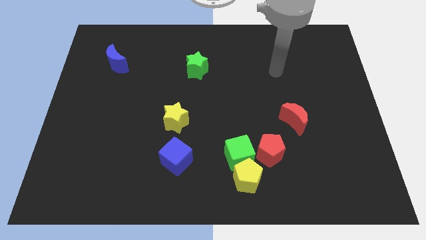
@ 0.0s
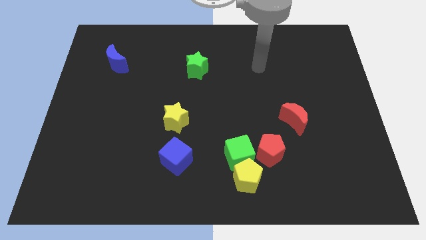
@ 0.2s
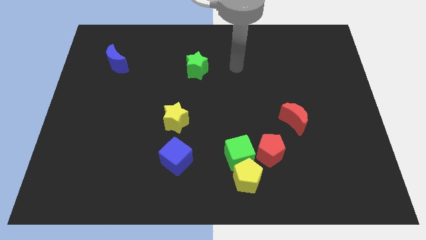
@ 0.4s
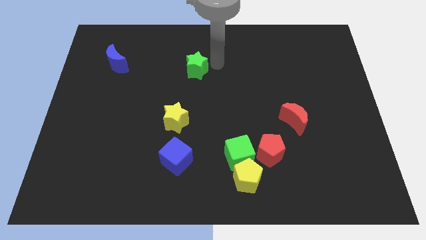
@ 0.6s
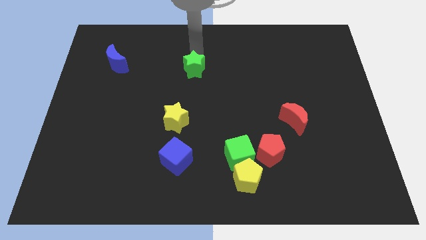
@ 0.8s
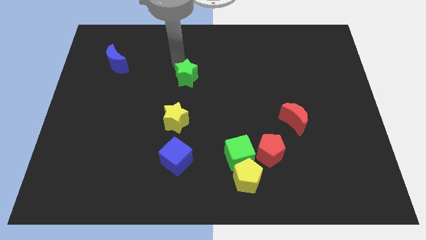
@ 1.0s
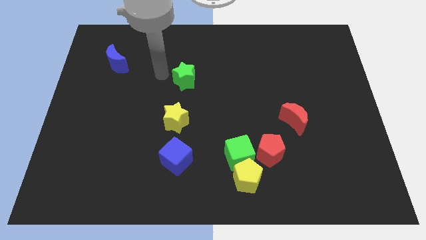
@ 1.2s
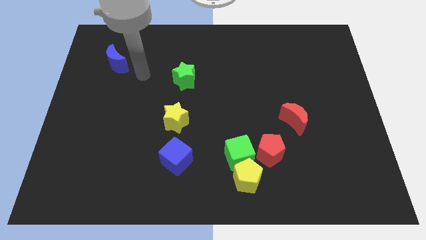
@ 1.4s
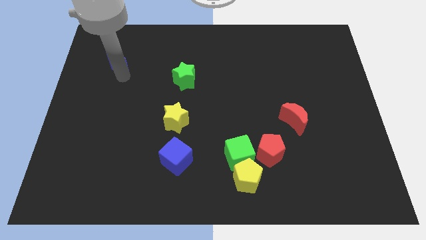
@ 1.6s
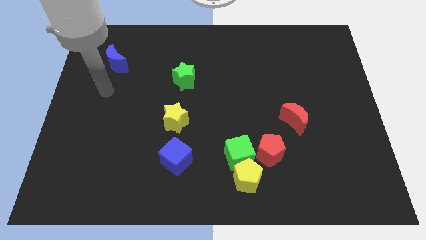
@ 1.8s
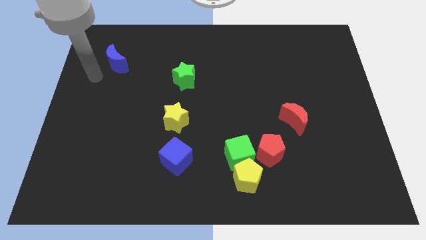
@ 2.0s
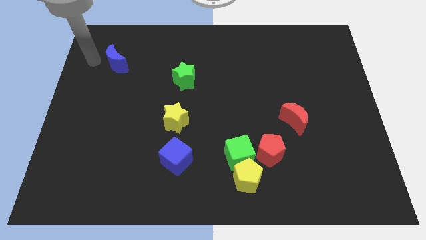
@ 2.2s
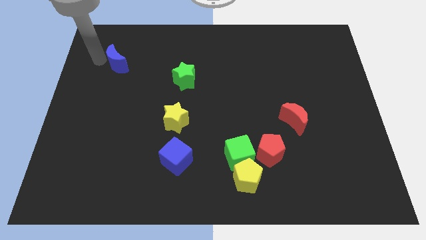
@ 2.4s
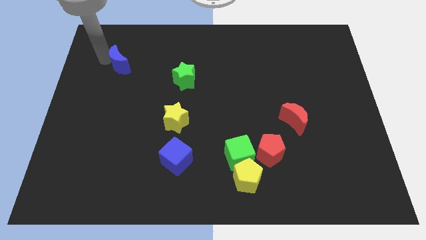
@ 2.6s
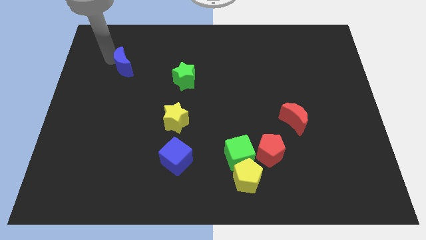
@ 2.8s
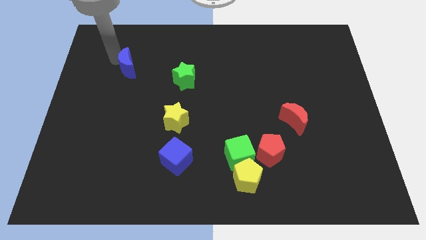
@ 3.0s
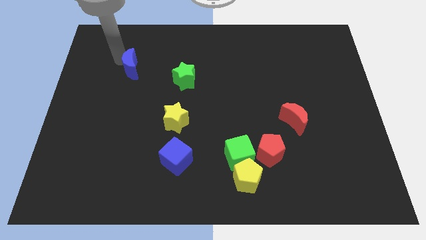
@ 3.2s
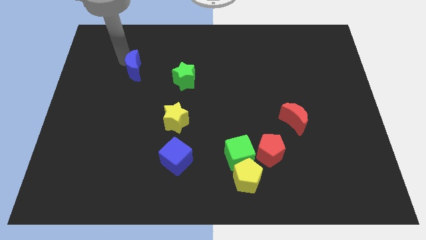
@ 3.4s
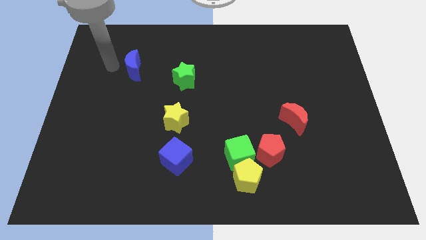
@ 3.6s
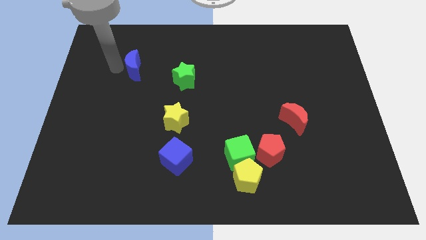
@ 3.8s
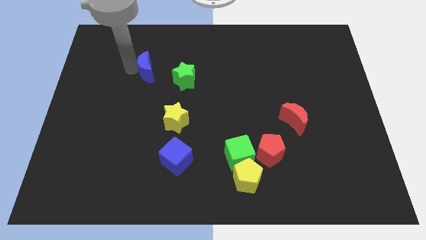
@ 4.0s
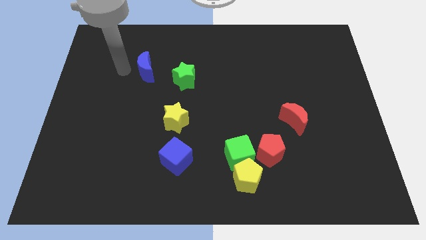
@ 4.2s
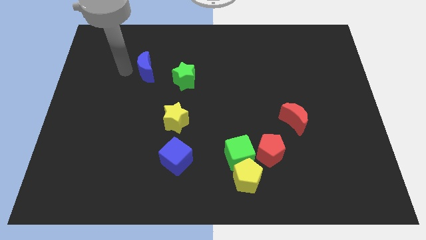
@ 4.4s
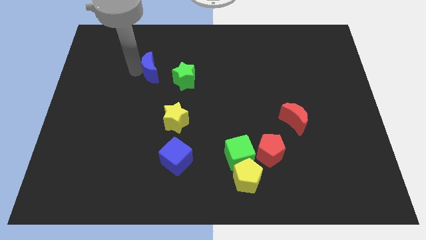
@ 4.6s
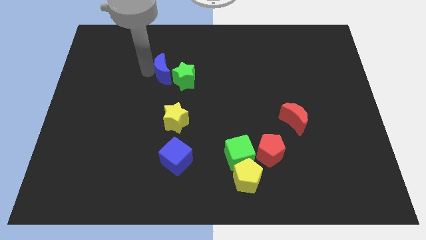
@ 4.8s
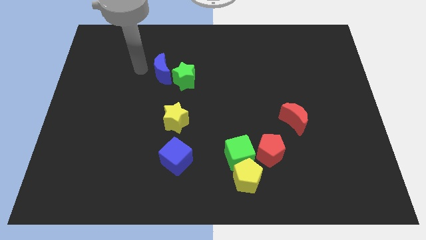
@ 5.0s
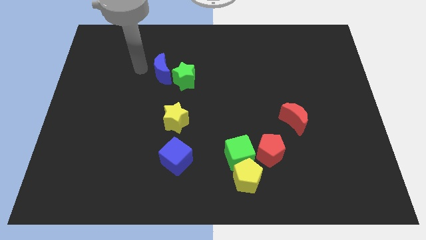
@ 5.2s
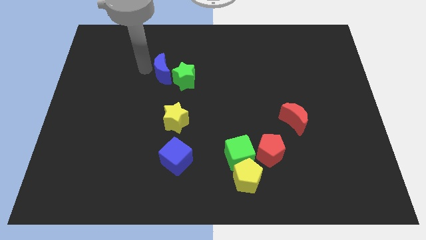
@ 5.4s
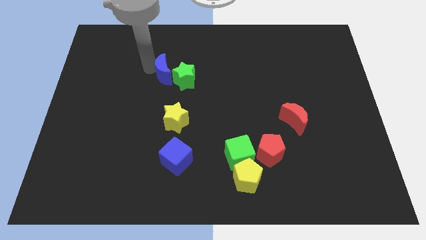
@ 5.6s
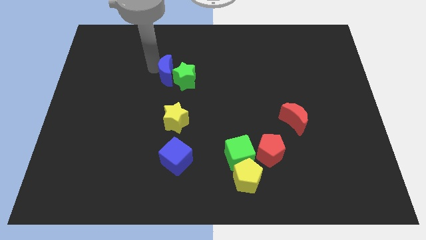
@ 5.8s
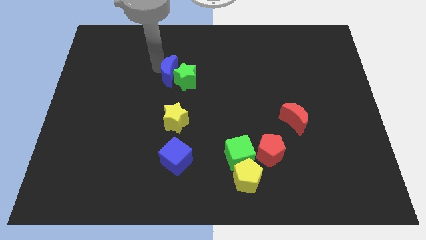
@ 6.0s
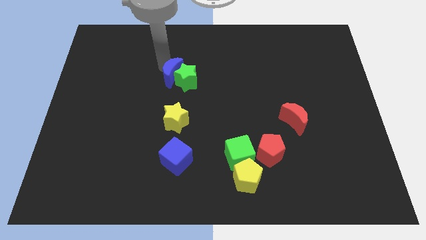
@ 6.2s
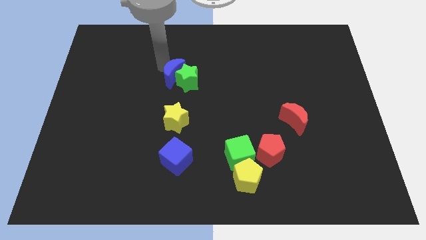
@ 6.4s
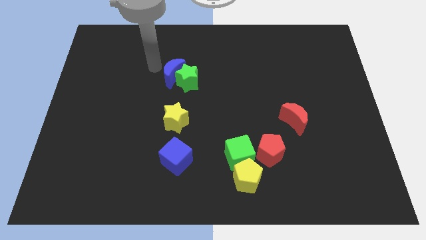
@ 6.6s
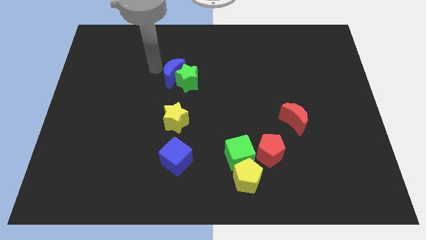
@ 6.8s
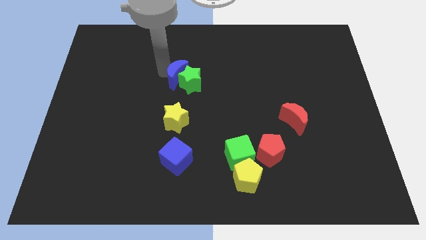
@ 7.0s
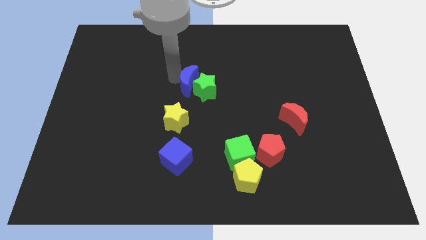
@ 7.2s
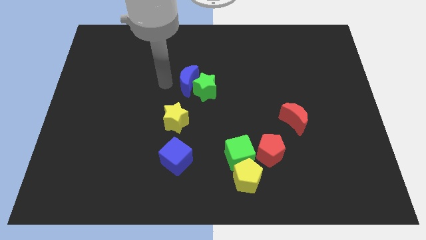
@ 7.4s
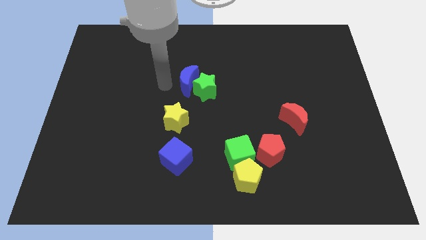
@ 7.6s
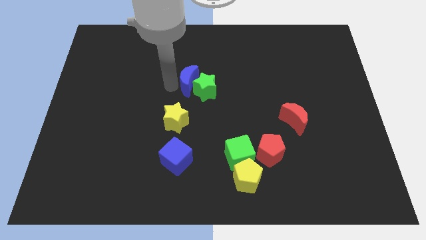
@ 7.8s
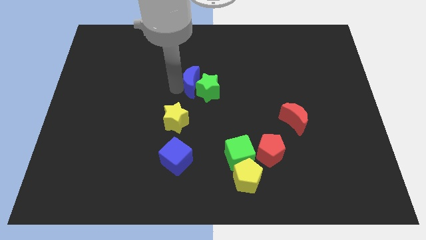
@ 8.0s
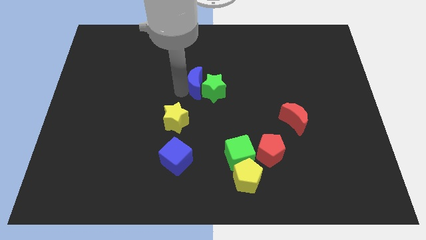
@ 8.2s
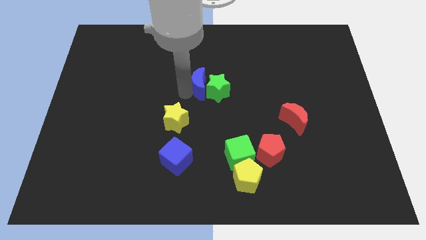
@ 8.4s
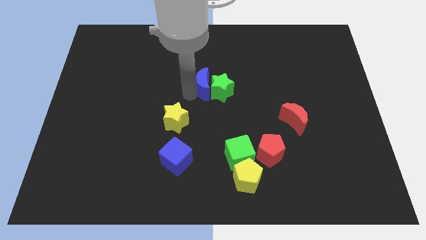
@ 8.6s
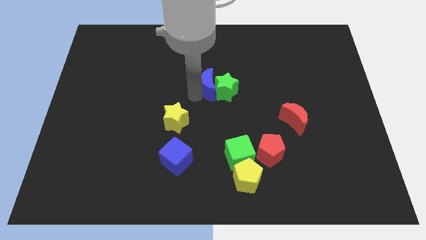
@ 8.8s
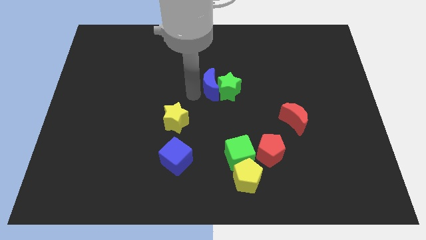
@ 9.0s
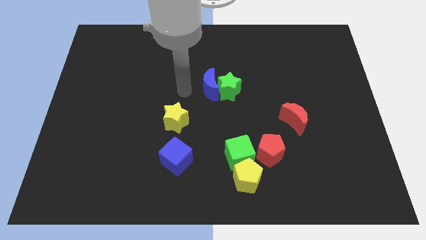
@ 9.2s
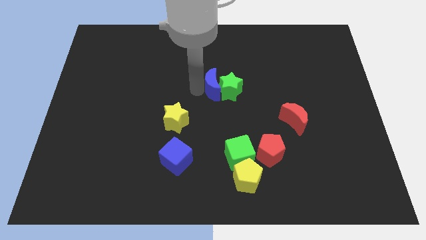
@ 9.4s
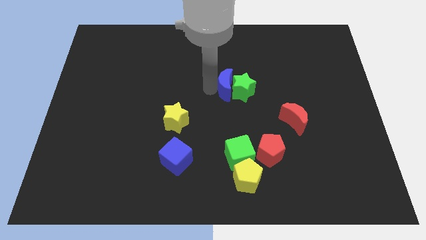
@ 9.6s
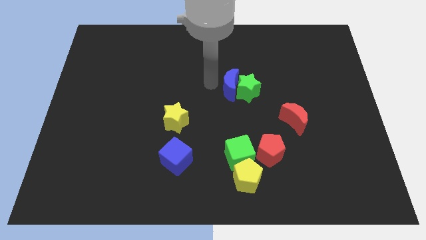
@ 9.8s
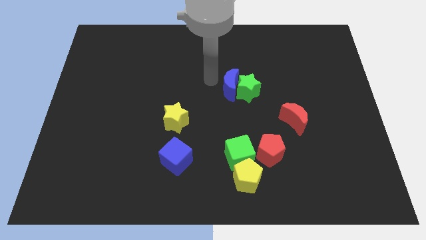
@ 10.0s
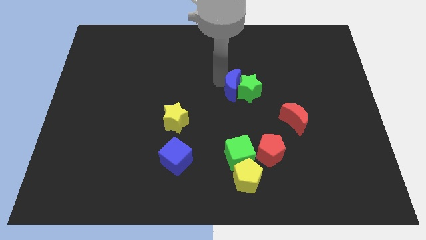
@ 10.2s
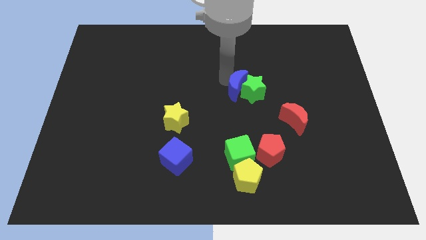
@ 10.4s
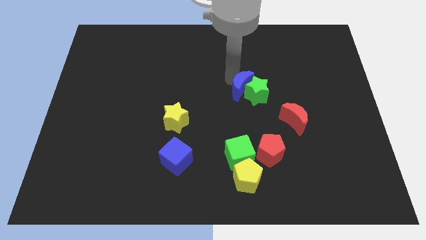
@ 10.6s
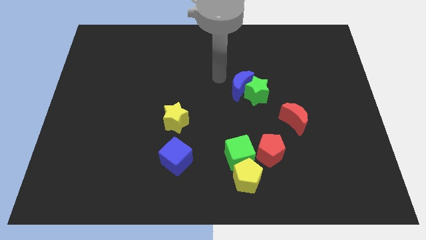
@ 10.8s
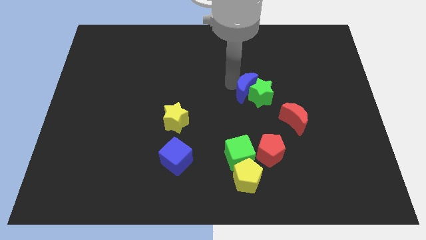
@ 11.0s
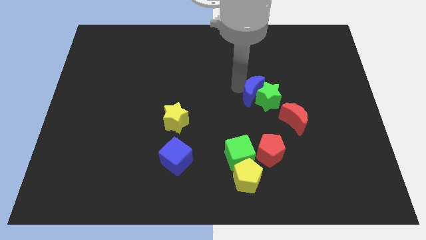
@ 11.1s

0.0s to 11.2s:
push the blue moon to the top left of the red moon

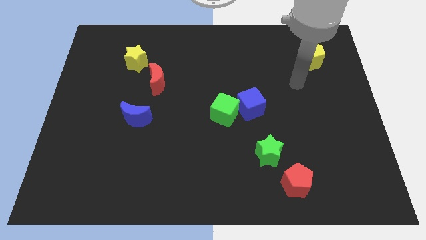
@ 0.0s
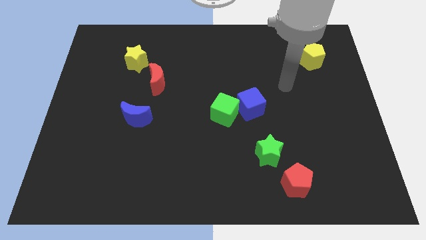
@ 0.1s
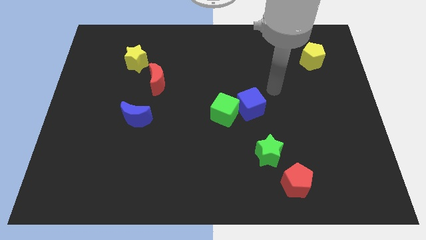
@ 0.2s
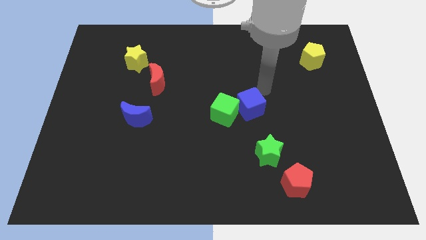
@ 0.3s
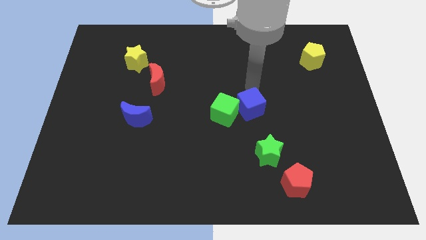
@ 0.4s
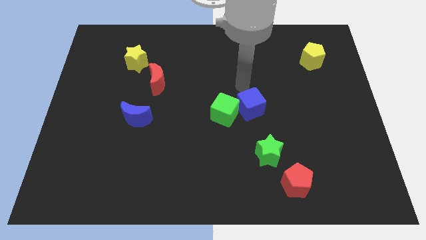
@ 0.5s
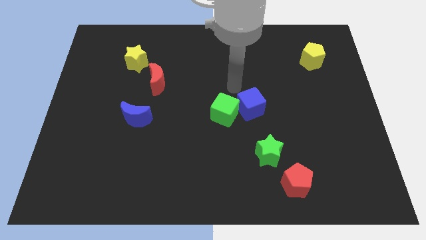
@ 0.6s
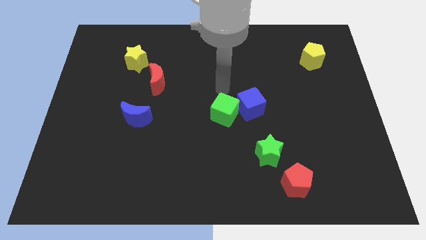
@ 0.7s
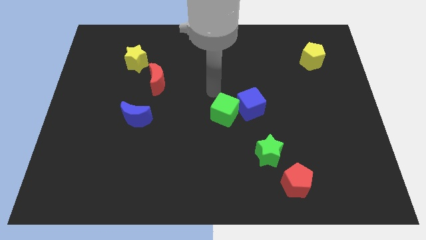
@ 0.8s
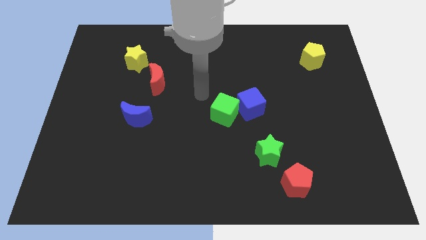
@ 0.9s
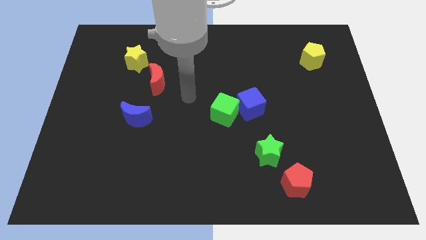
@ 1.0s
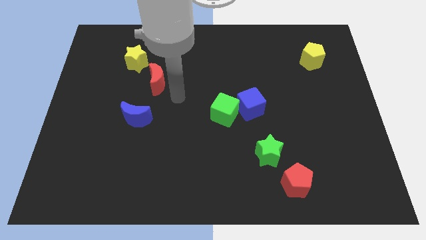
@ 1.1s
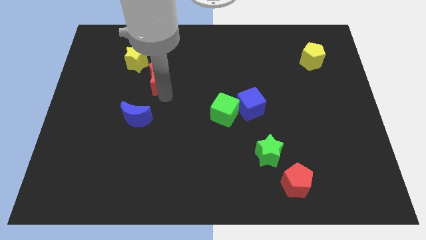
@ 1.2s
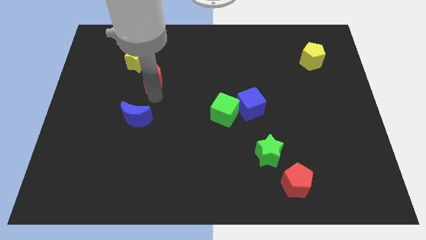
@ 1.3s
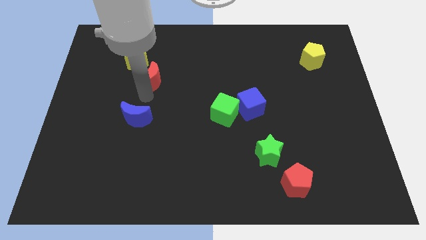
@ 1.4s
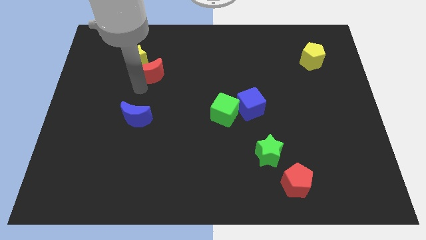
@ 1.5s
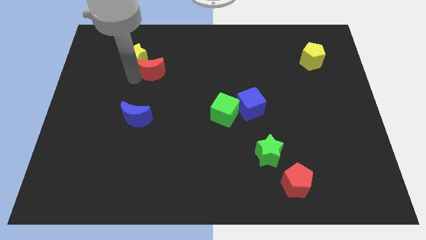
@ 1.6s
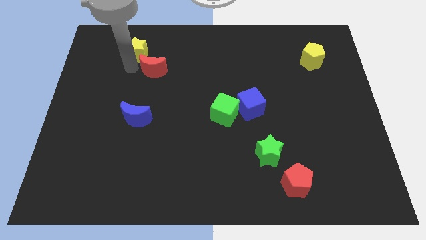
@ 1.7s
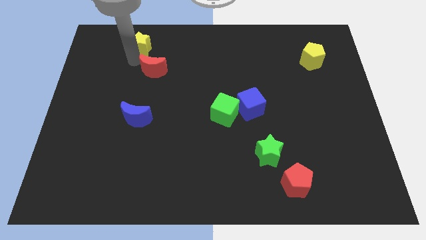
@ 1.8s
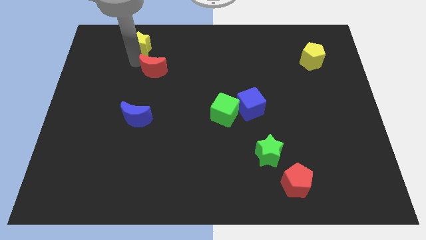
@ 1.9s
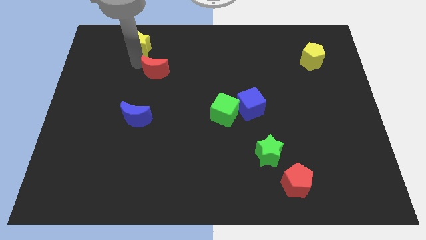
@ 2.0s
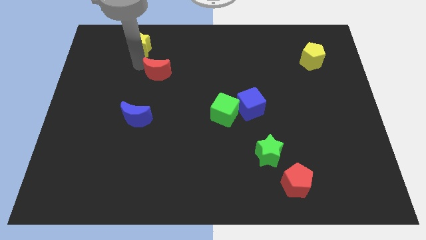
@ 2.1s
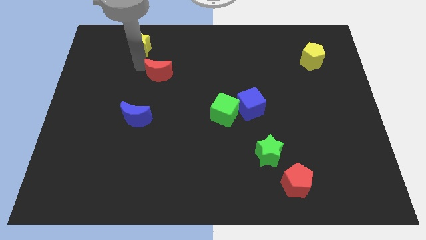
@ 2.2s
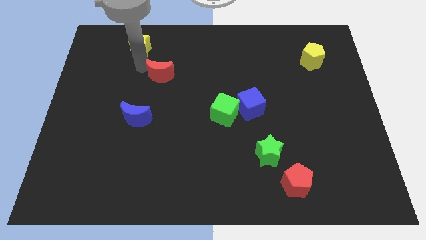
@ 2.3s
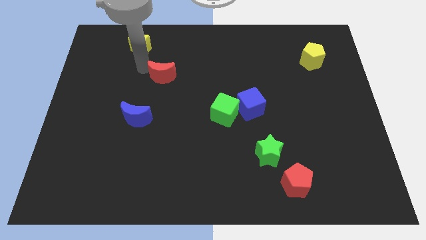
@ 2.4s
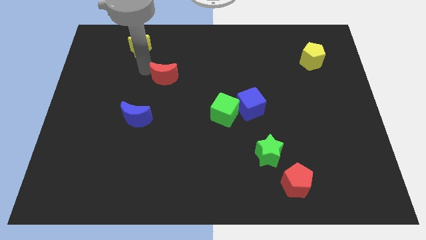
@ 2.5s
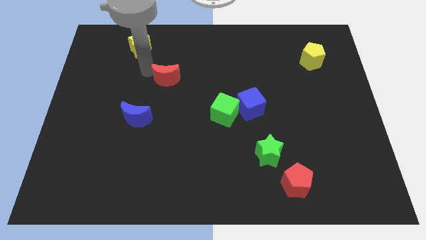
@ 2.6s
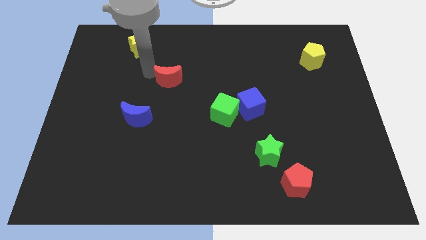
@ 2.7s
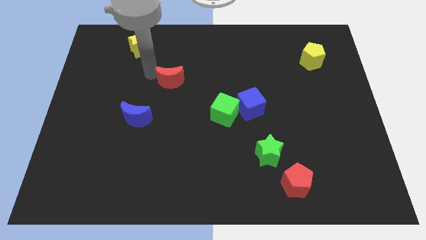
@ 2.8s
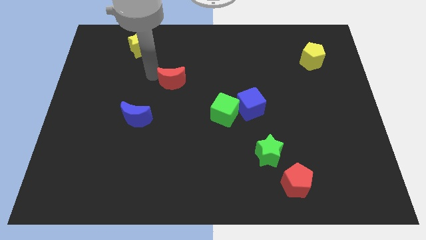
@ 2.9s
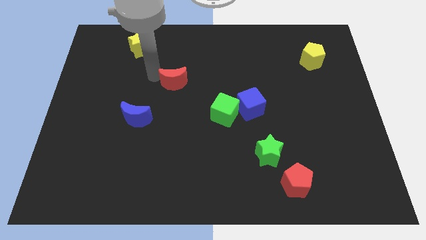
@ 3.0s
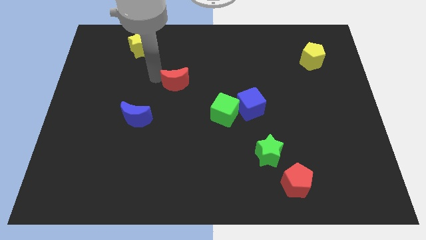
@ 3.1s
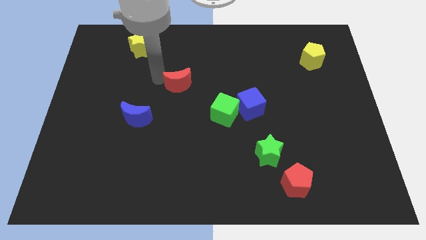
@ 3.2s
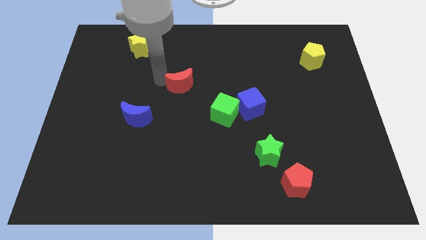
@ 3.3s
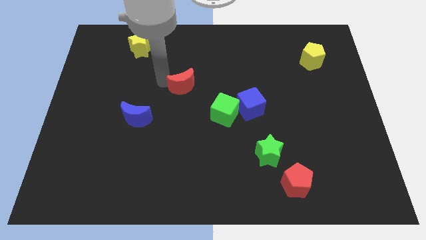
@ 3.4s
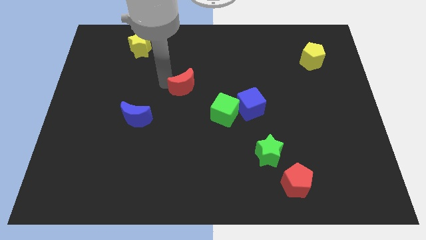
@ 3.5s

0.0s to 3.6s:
push the red moon to the top left side of the green cube
